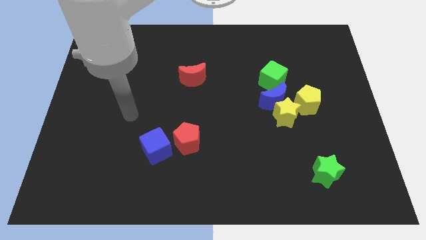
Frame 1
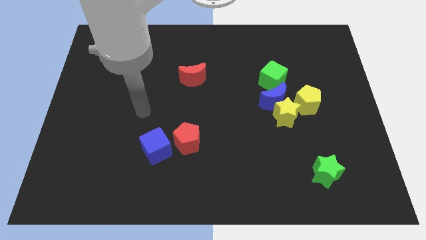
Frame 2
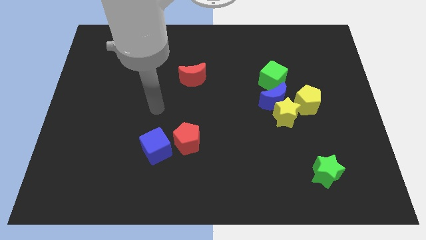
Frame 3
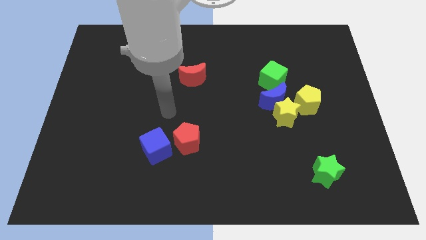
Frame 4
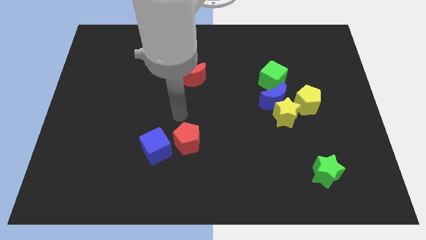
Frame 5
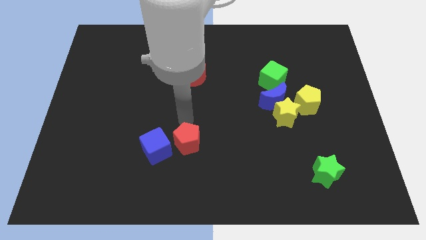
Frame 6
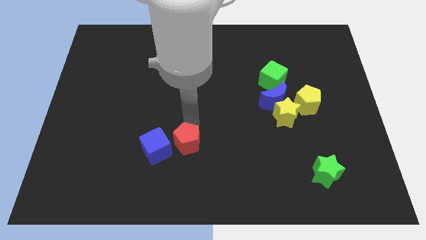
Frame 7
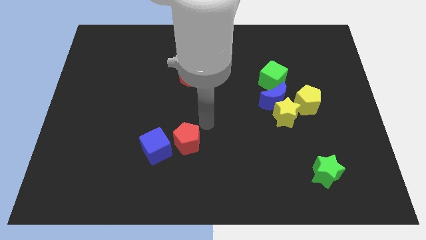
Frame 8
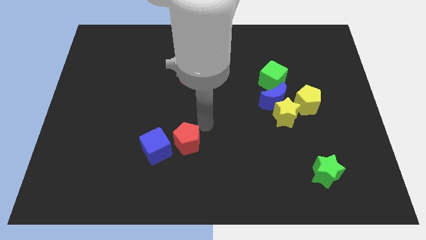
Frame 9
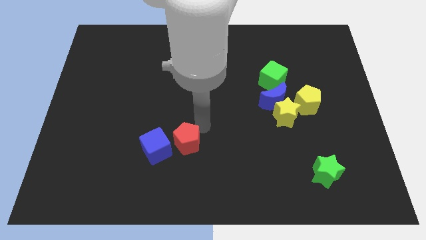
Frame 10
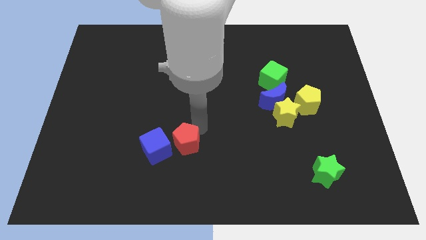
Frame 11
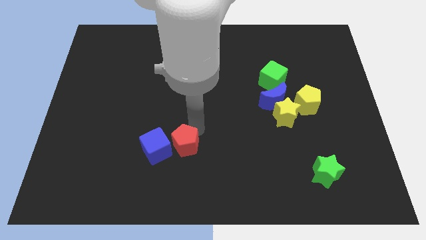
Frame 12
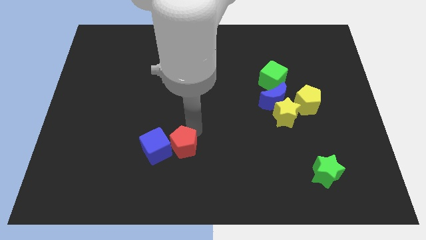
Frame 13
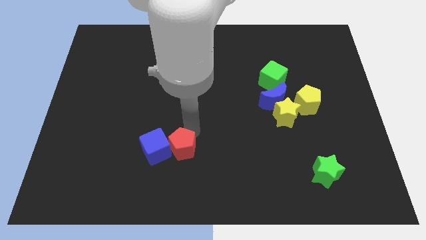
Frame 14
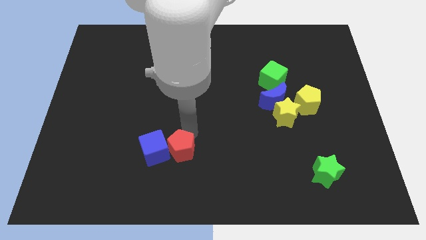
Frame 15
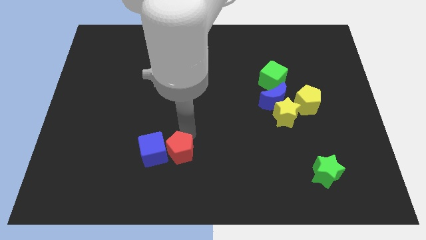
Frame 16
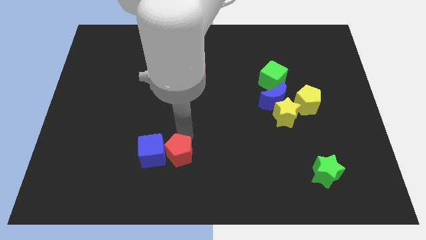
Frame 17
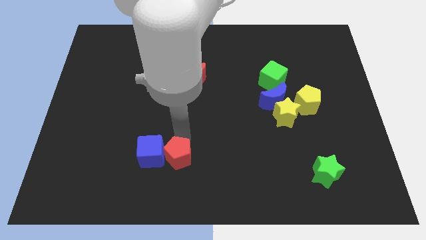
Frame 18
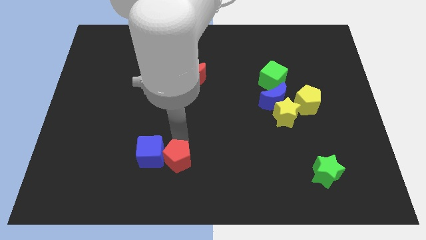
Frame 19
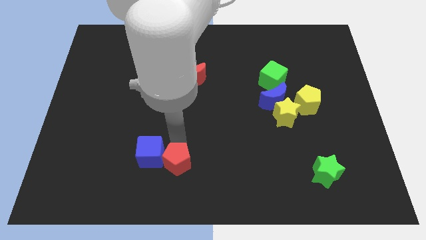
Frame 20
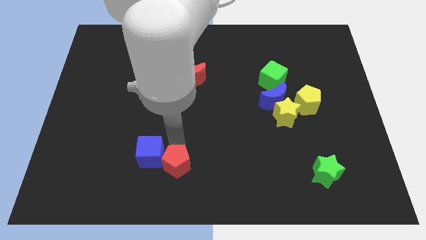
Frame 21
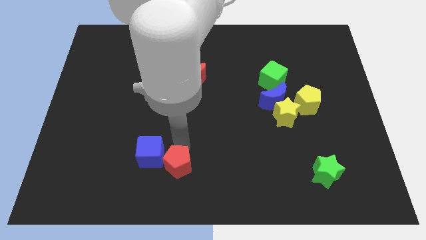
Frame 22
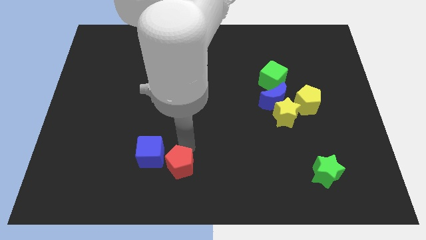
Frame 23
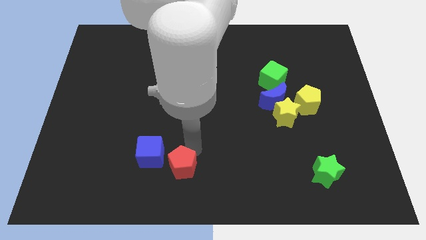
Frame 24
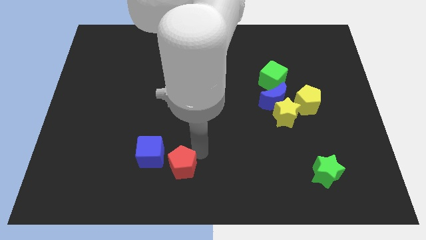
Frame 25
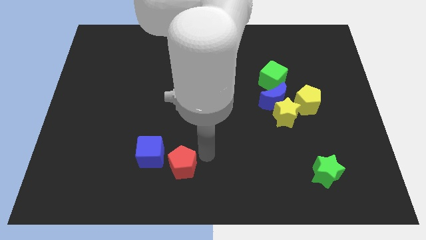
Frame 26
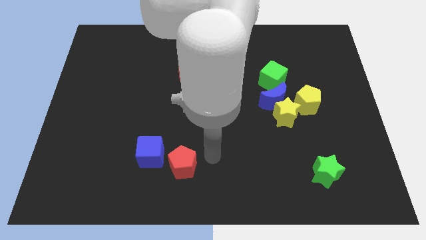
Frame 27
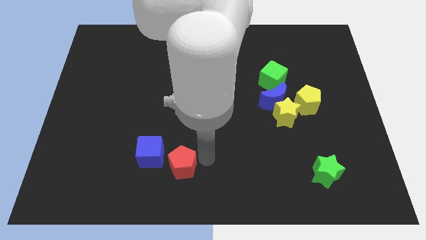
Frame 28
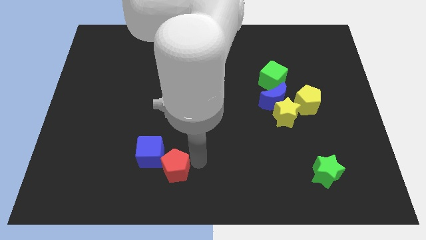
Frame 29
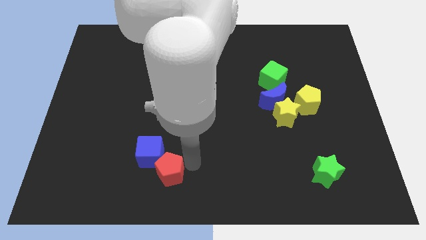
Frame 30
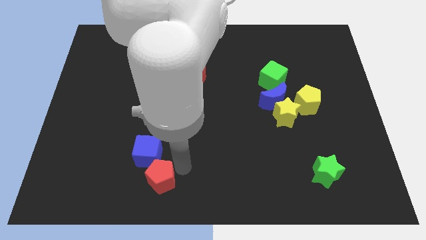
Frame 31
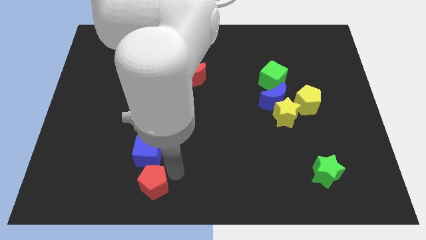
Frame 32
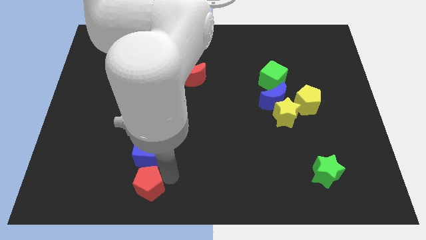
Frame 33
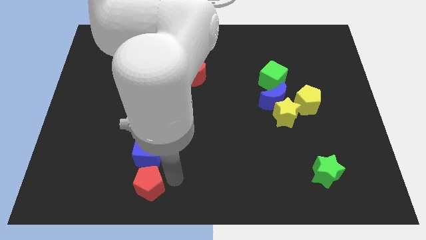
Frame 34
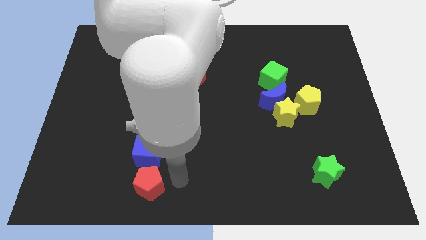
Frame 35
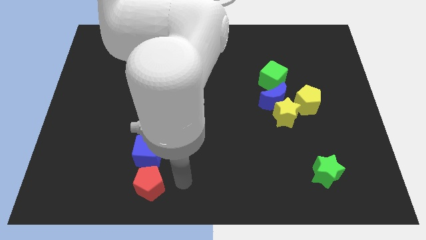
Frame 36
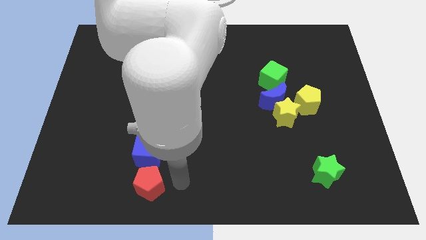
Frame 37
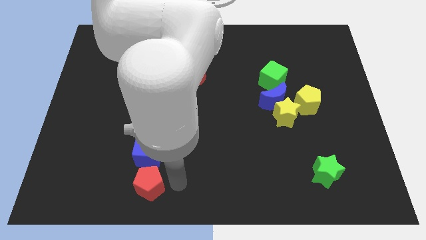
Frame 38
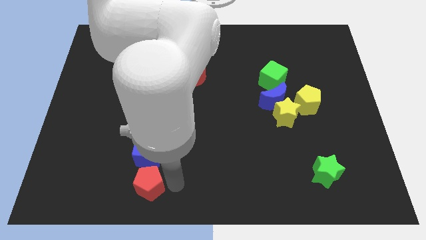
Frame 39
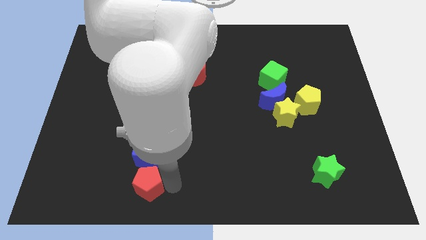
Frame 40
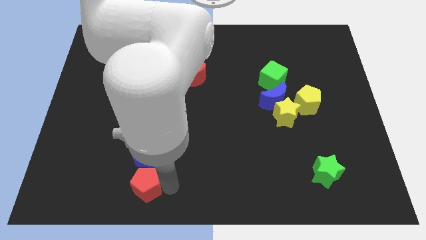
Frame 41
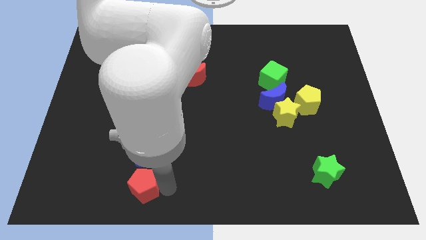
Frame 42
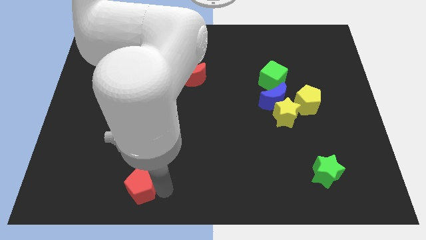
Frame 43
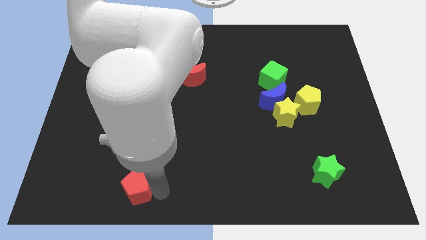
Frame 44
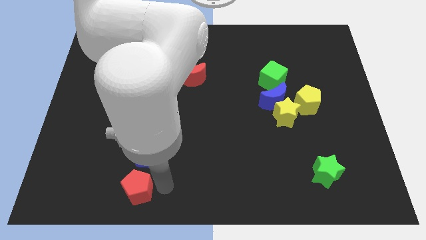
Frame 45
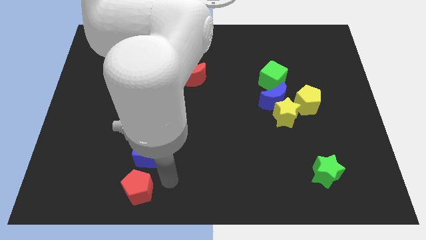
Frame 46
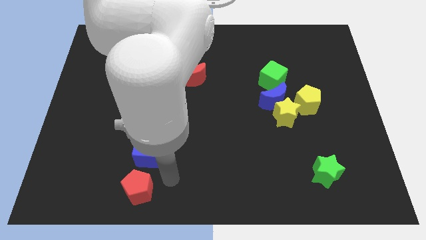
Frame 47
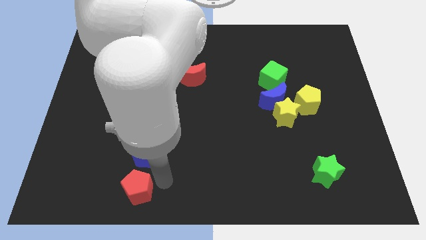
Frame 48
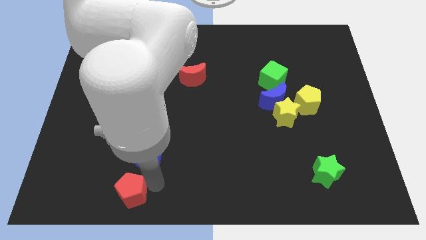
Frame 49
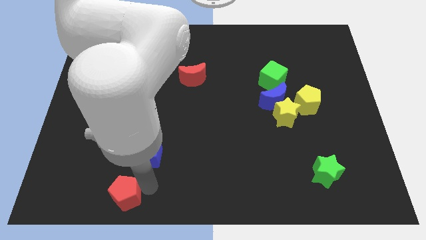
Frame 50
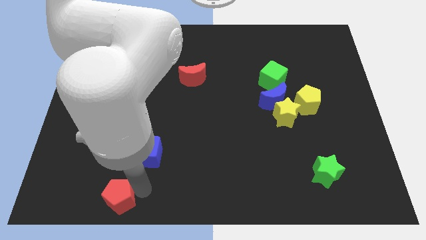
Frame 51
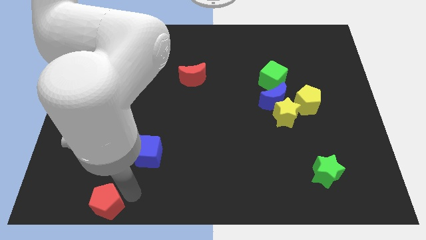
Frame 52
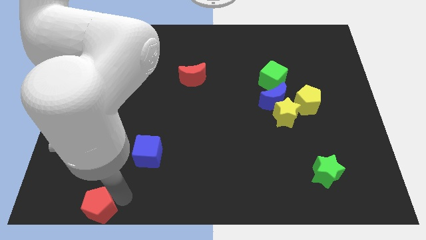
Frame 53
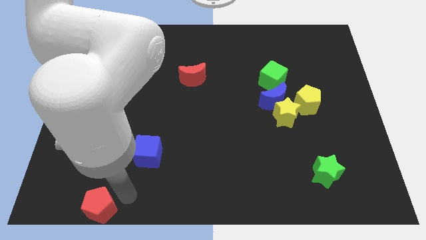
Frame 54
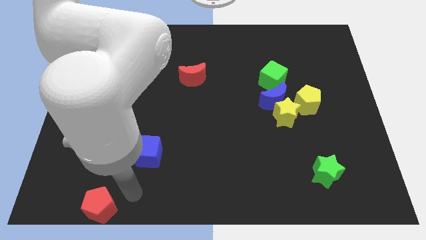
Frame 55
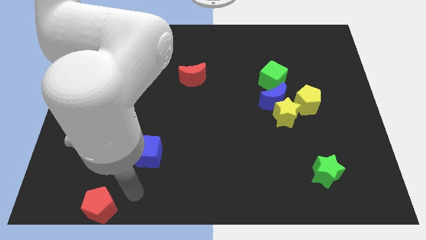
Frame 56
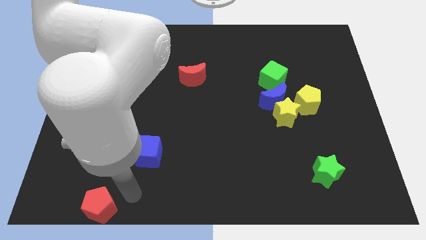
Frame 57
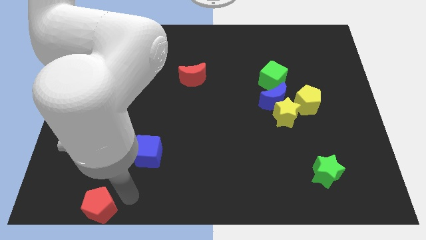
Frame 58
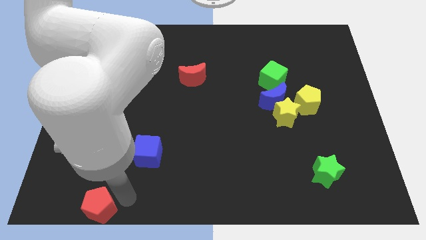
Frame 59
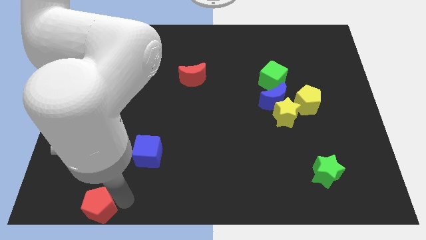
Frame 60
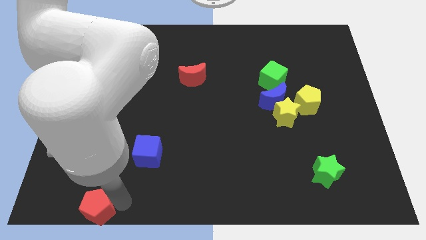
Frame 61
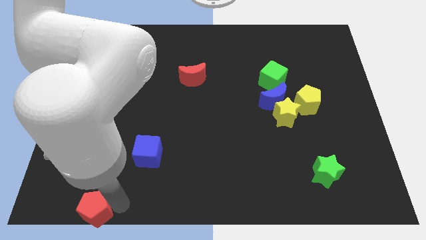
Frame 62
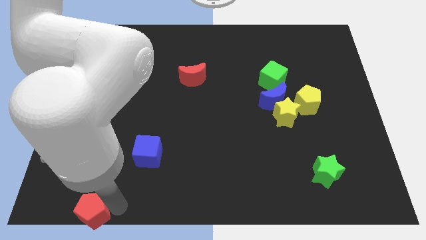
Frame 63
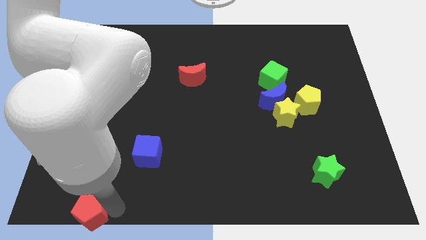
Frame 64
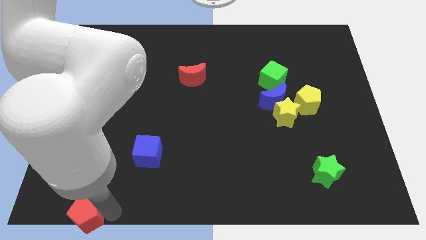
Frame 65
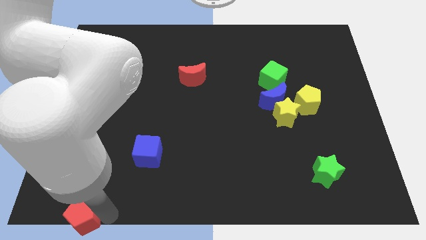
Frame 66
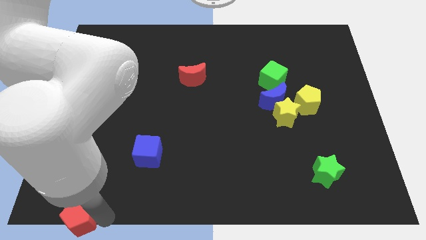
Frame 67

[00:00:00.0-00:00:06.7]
push the red pentagon to the bottom left

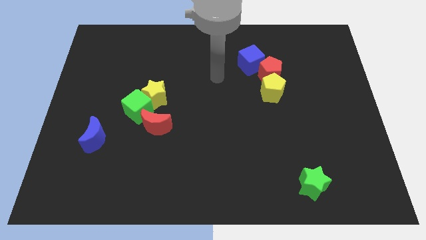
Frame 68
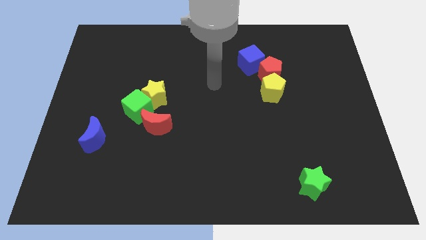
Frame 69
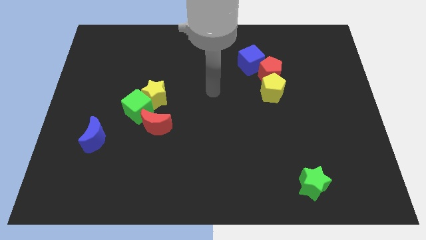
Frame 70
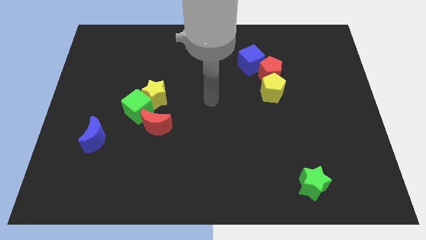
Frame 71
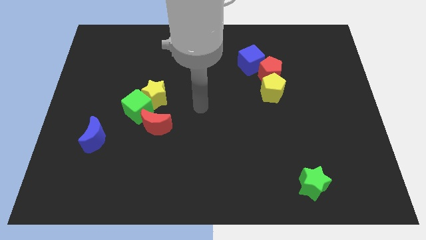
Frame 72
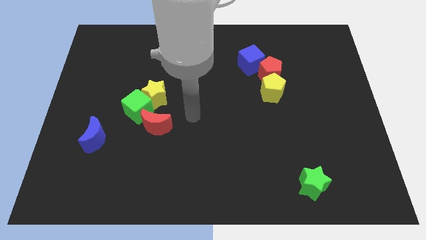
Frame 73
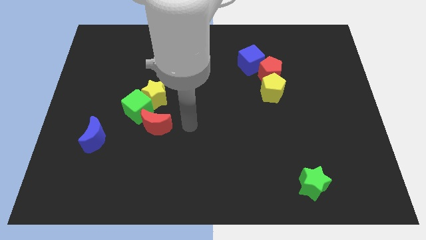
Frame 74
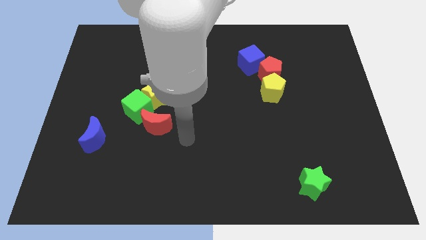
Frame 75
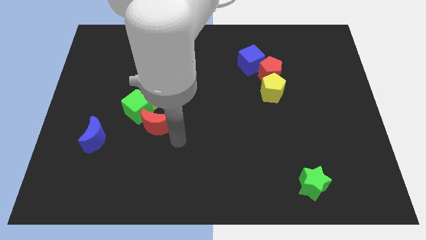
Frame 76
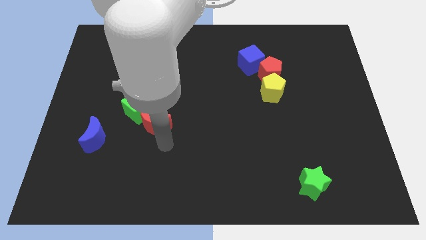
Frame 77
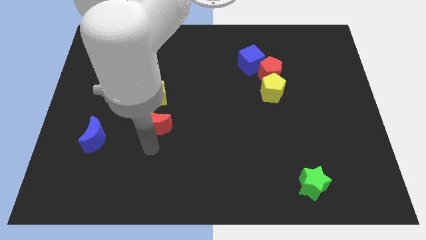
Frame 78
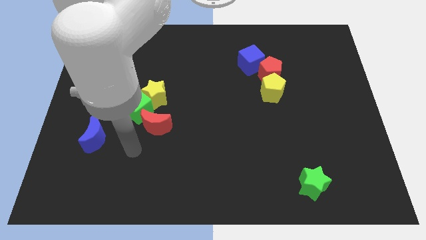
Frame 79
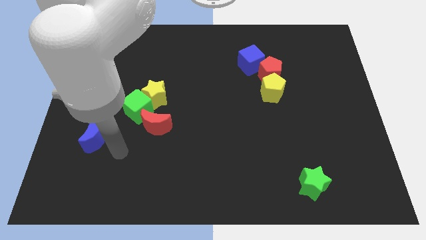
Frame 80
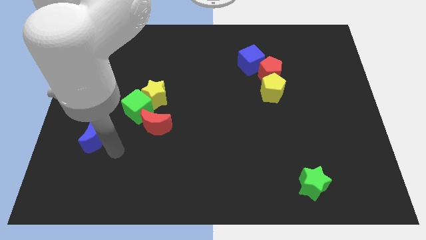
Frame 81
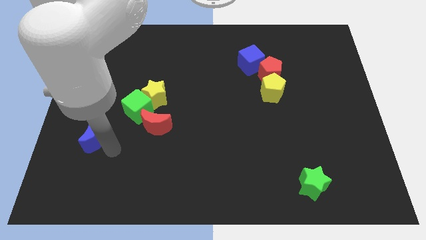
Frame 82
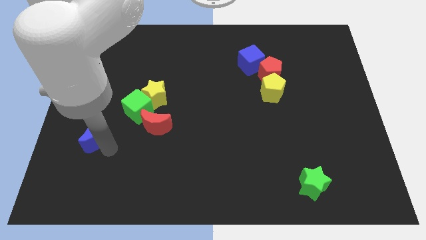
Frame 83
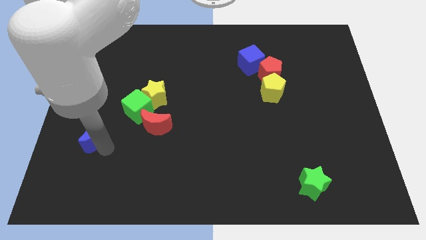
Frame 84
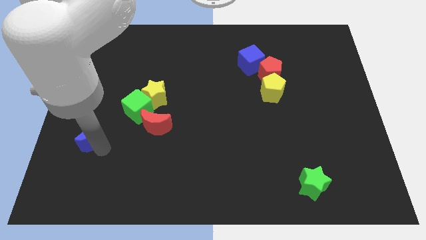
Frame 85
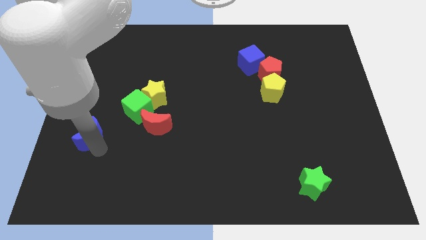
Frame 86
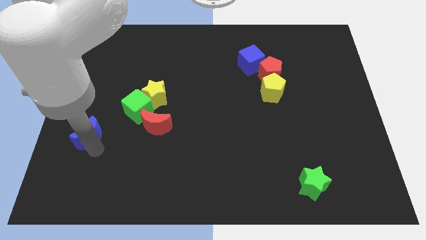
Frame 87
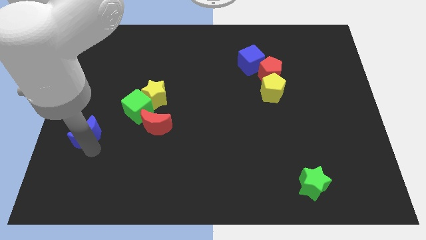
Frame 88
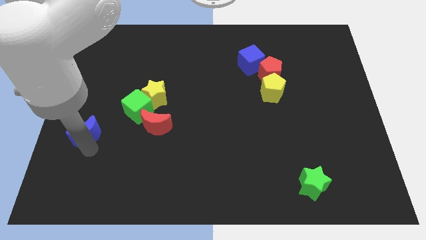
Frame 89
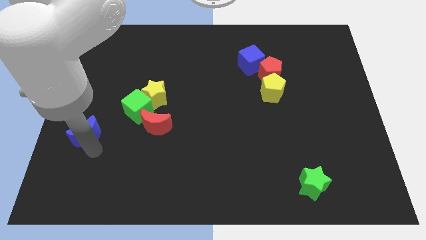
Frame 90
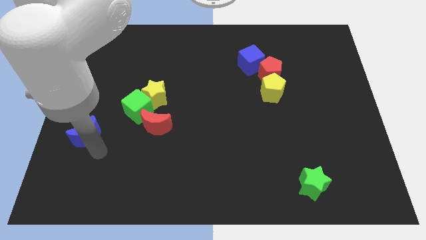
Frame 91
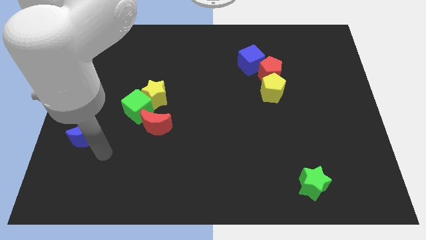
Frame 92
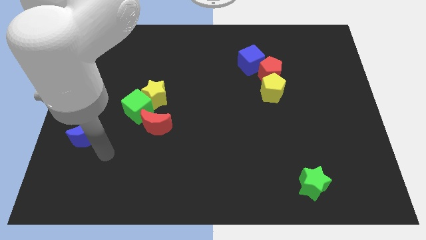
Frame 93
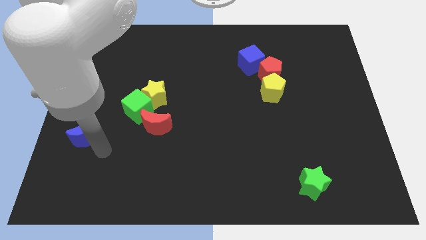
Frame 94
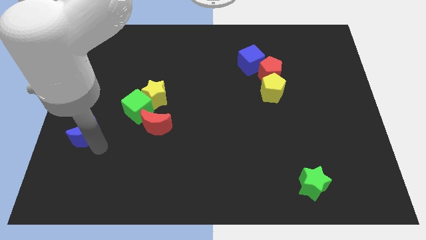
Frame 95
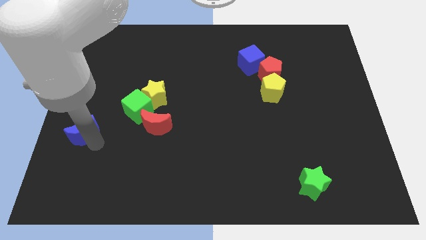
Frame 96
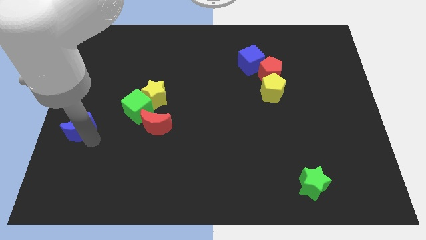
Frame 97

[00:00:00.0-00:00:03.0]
move the blue moon to the center left
